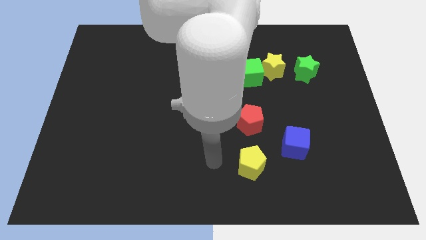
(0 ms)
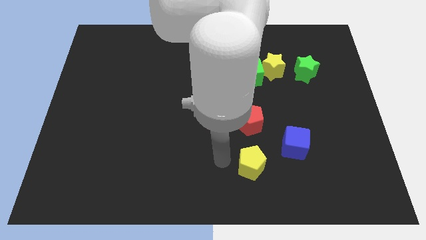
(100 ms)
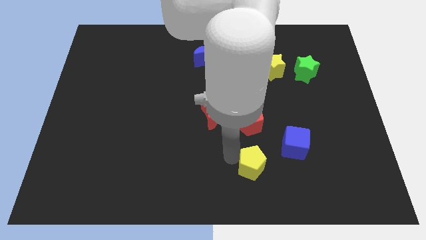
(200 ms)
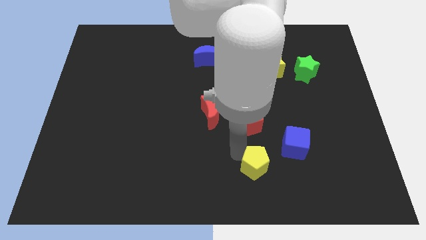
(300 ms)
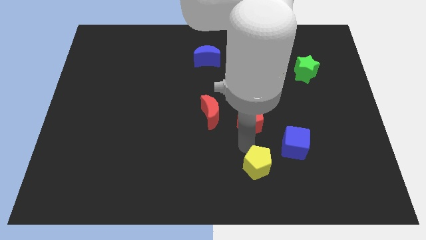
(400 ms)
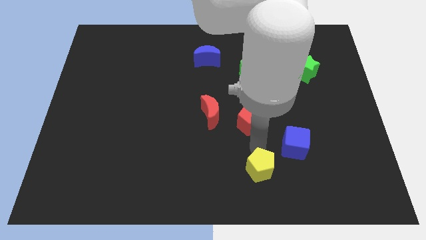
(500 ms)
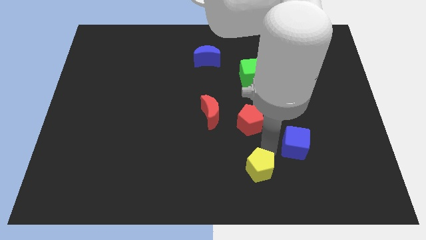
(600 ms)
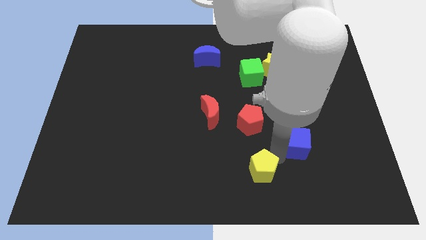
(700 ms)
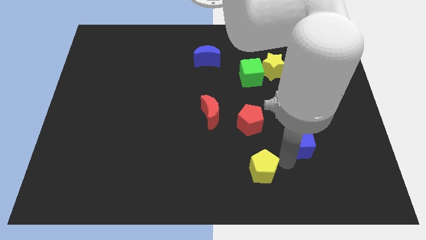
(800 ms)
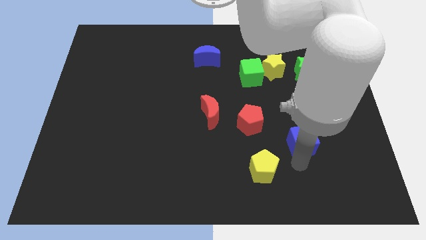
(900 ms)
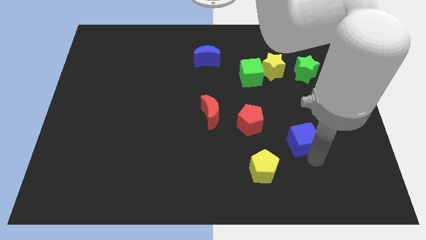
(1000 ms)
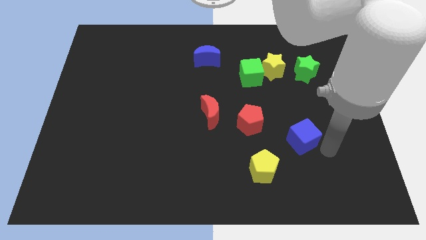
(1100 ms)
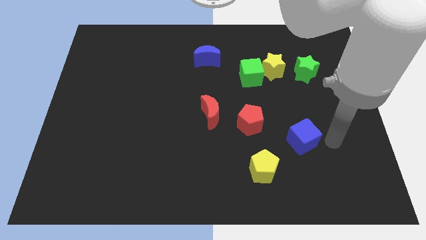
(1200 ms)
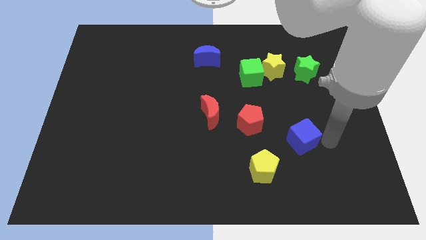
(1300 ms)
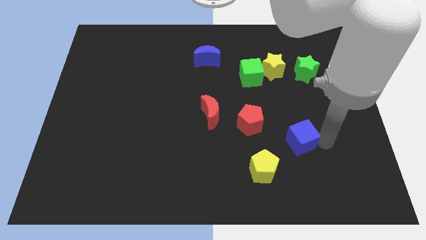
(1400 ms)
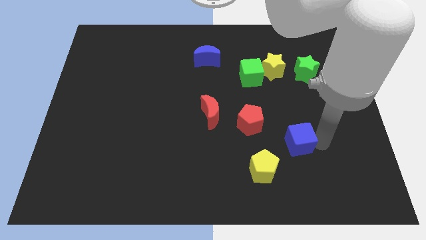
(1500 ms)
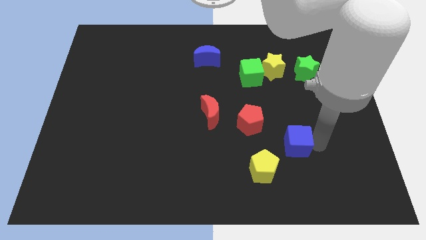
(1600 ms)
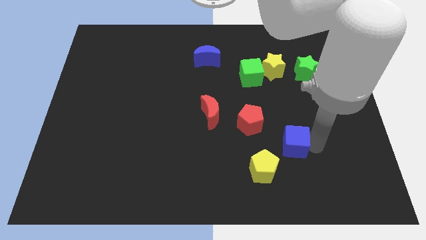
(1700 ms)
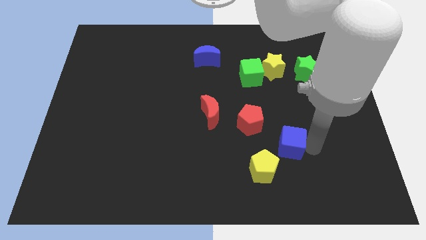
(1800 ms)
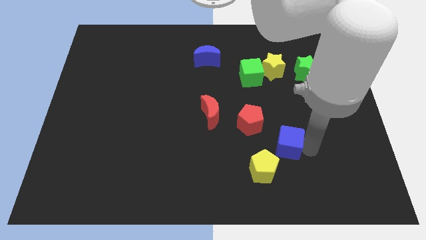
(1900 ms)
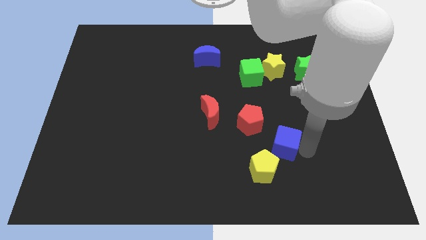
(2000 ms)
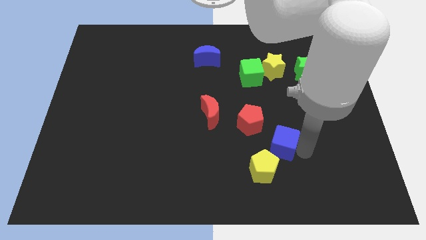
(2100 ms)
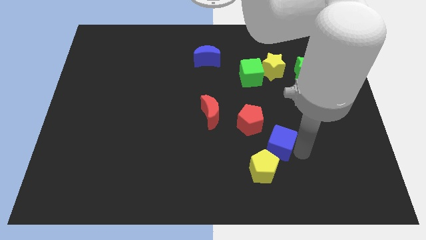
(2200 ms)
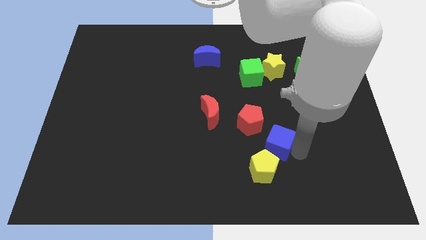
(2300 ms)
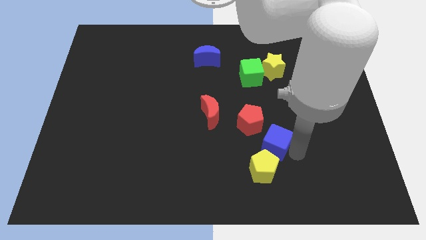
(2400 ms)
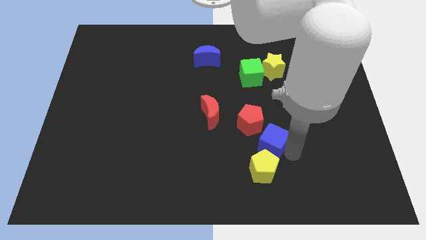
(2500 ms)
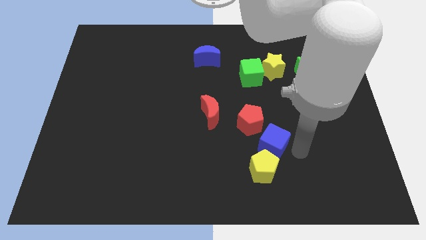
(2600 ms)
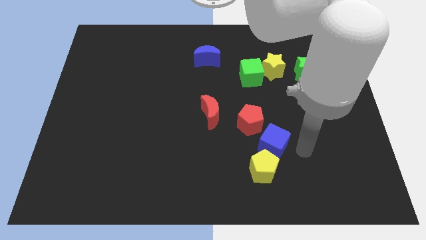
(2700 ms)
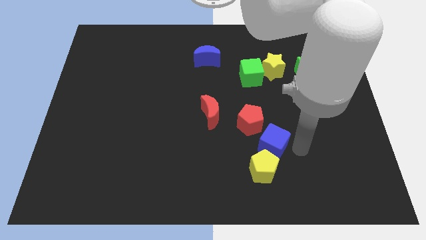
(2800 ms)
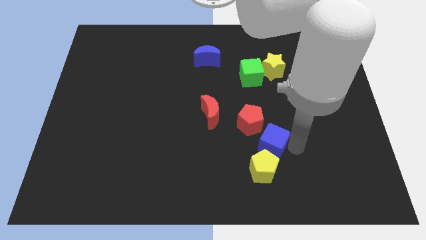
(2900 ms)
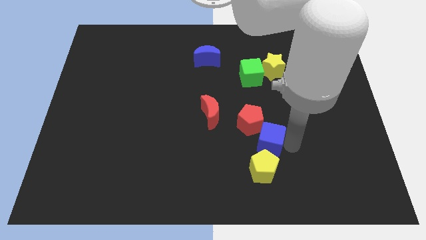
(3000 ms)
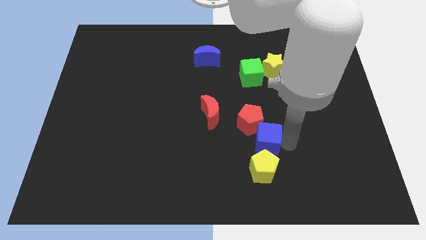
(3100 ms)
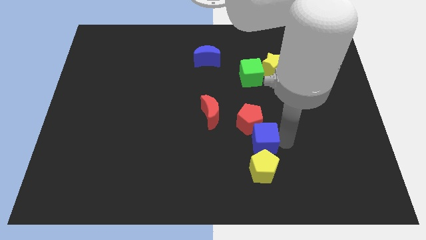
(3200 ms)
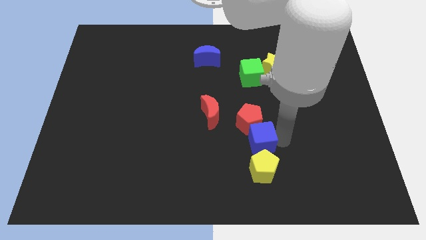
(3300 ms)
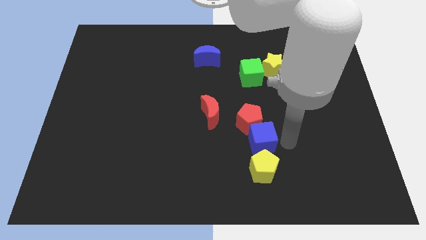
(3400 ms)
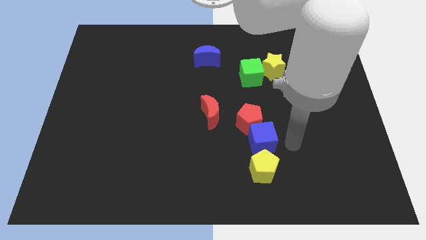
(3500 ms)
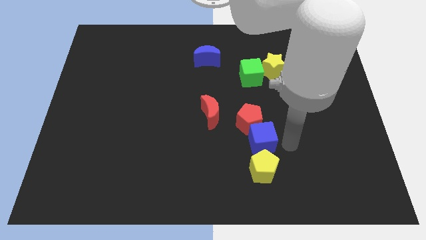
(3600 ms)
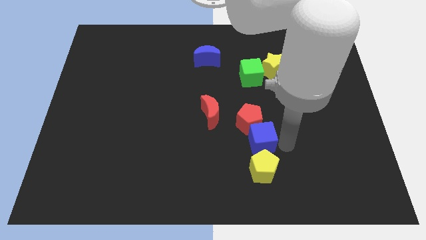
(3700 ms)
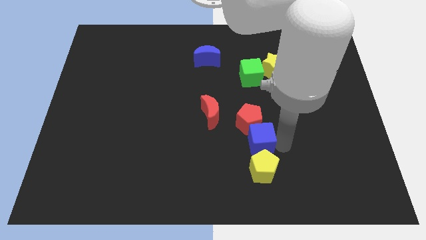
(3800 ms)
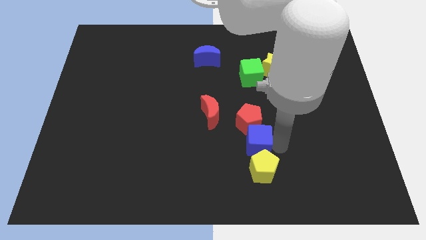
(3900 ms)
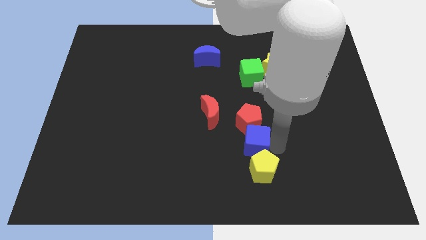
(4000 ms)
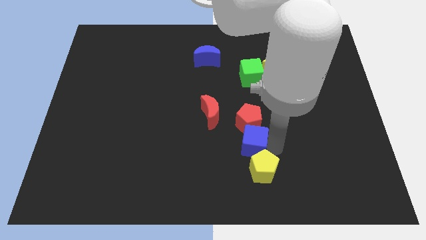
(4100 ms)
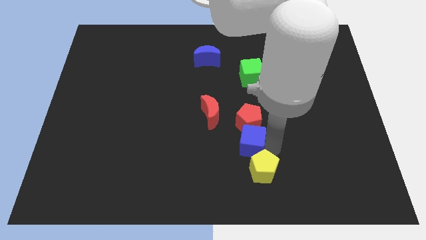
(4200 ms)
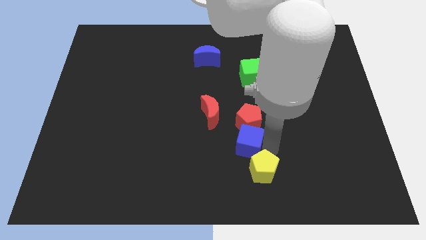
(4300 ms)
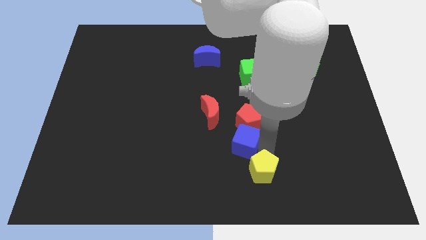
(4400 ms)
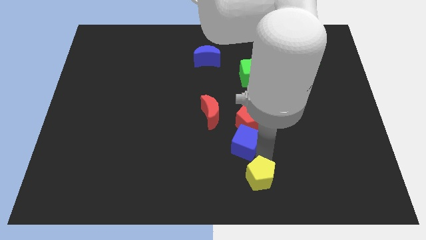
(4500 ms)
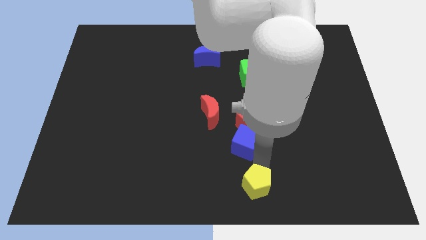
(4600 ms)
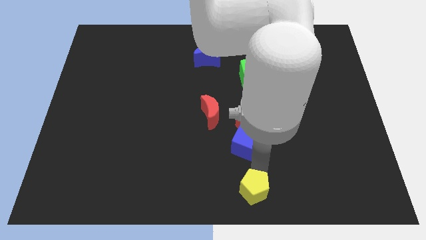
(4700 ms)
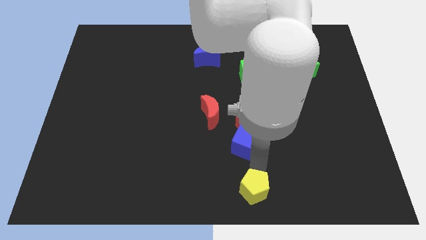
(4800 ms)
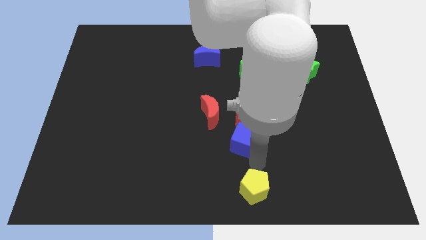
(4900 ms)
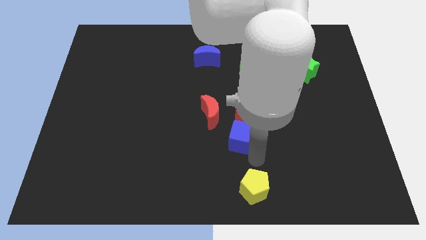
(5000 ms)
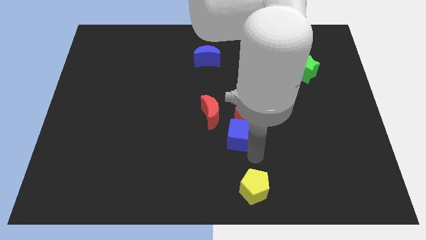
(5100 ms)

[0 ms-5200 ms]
push the blue cube to the middle of the board

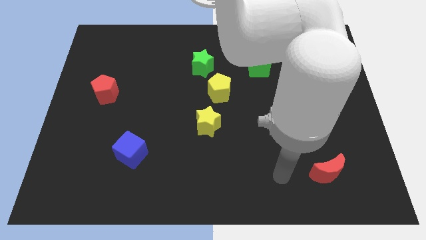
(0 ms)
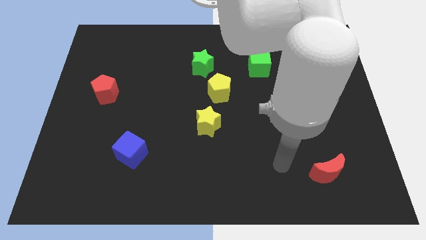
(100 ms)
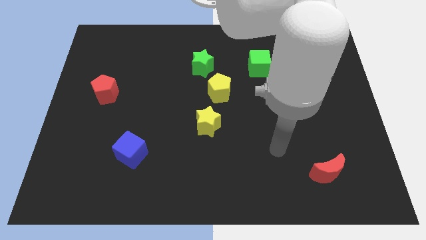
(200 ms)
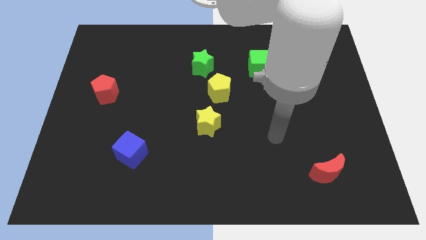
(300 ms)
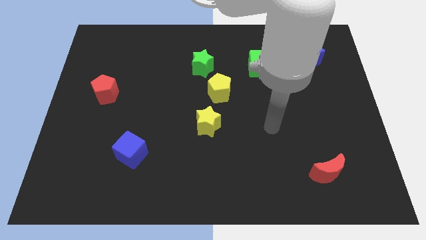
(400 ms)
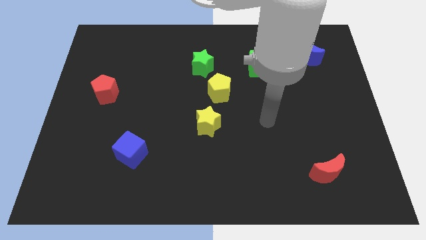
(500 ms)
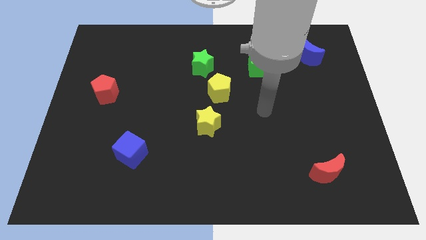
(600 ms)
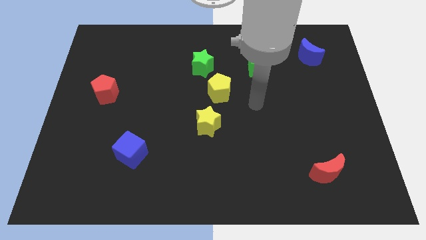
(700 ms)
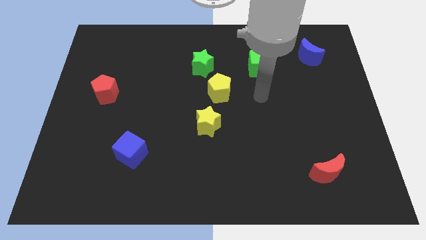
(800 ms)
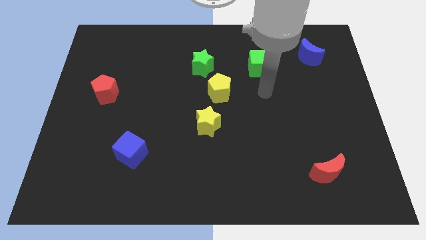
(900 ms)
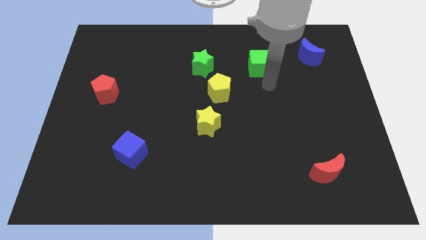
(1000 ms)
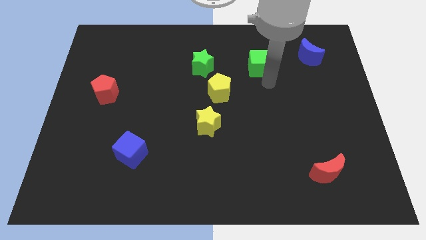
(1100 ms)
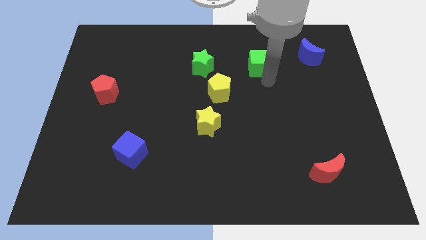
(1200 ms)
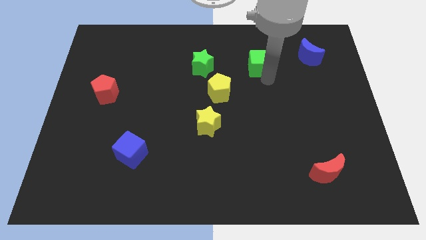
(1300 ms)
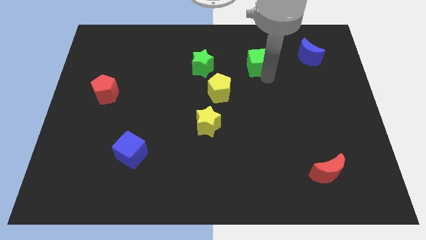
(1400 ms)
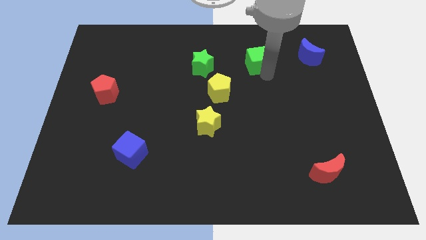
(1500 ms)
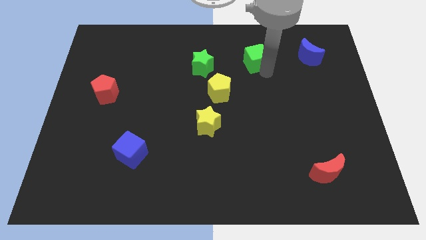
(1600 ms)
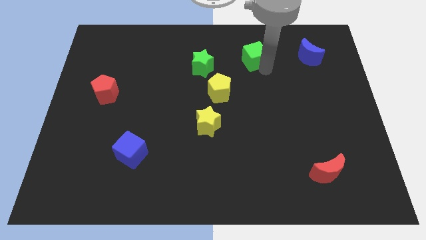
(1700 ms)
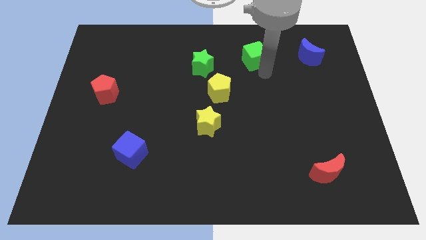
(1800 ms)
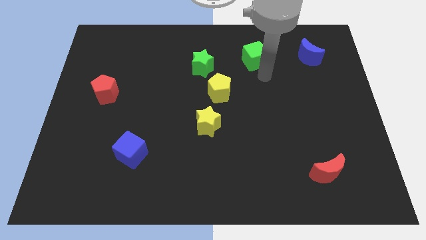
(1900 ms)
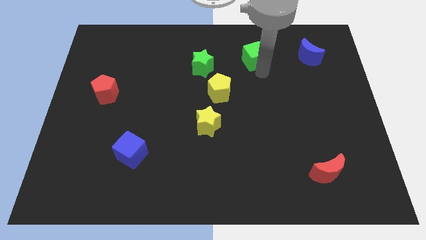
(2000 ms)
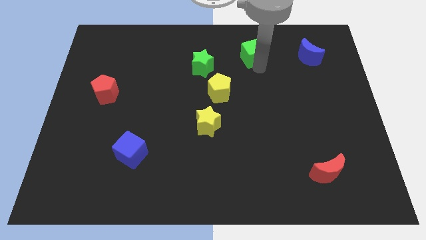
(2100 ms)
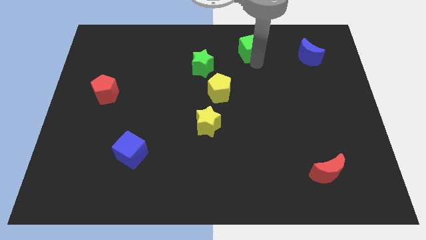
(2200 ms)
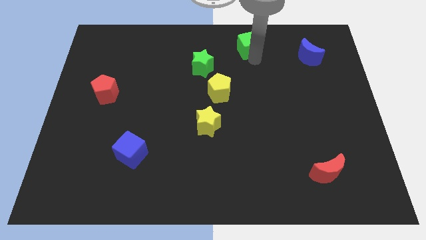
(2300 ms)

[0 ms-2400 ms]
put the green cube to the top side
